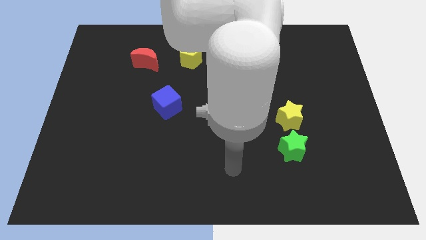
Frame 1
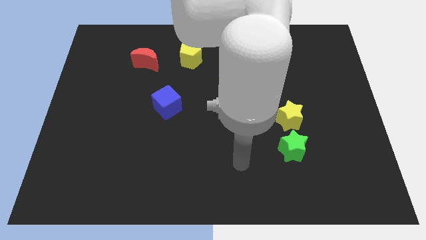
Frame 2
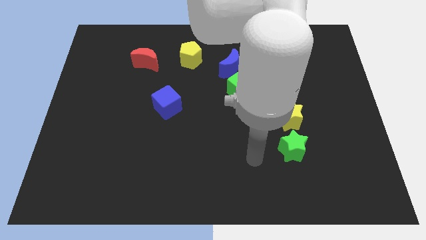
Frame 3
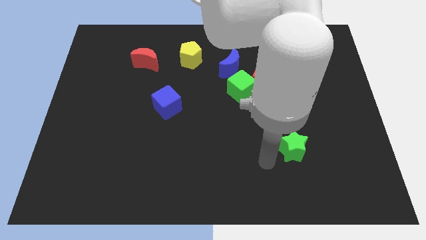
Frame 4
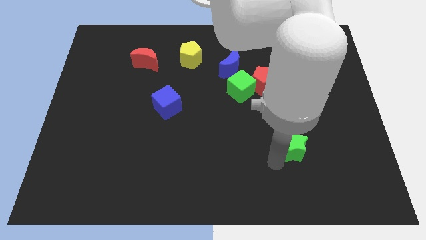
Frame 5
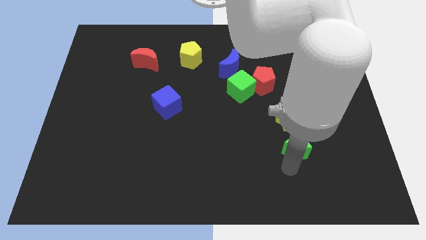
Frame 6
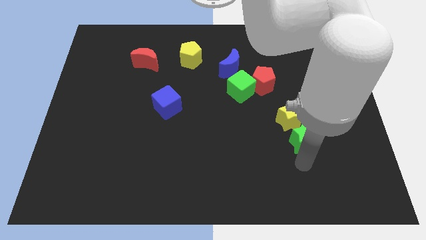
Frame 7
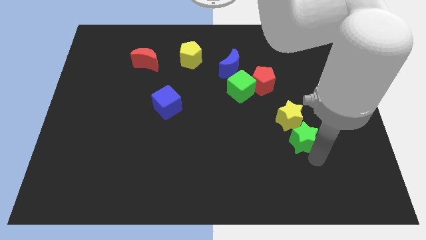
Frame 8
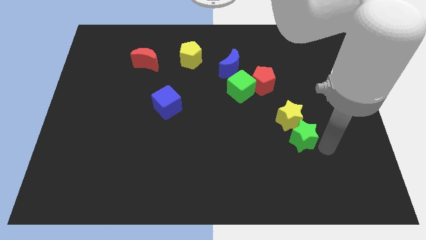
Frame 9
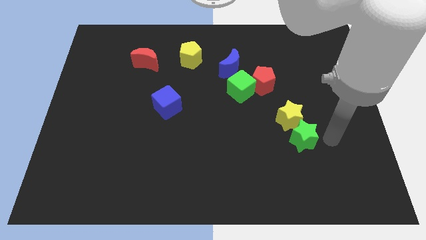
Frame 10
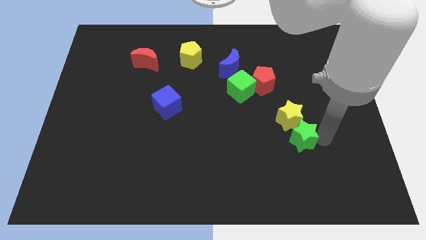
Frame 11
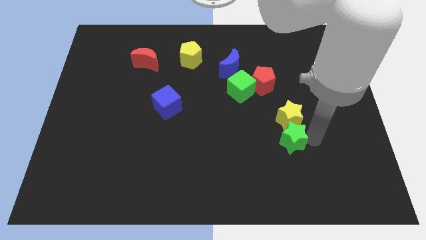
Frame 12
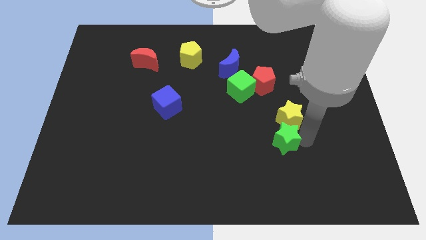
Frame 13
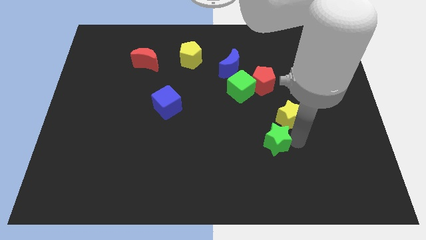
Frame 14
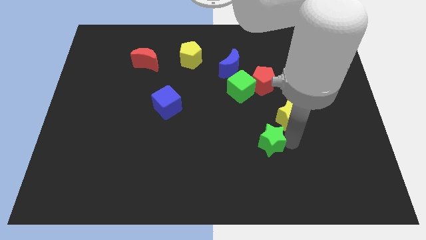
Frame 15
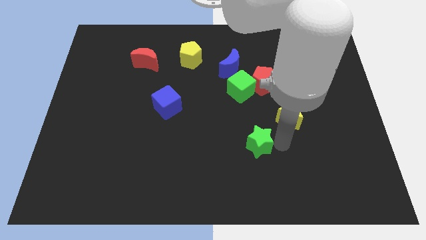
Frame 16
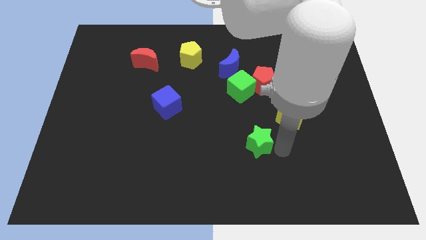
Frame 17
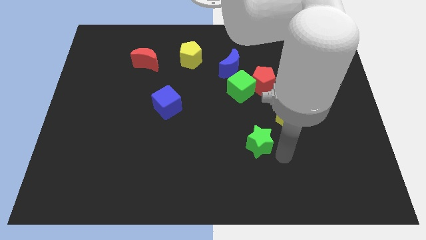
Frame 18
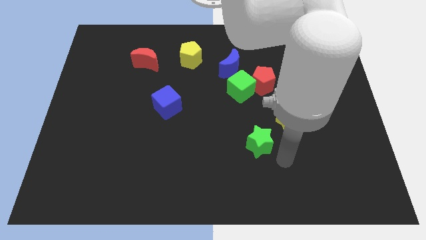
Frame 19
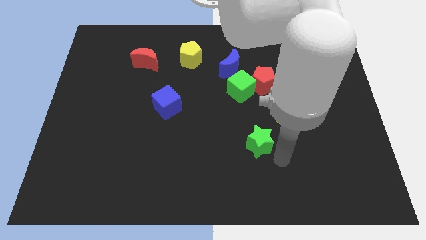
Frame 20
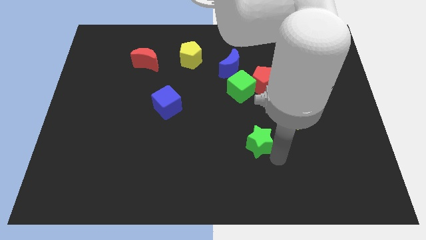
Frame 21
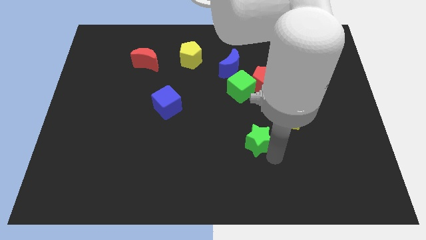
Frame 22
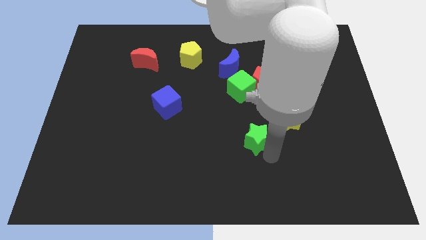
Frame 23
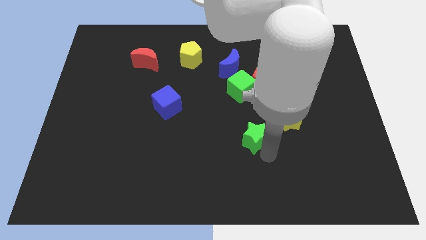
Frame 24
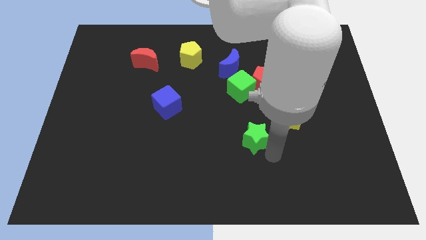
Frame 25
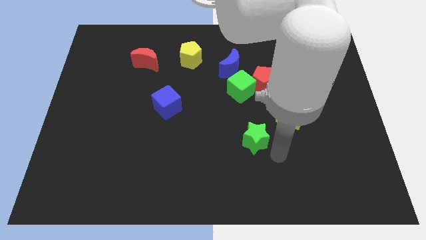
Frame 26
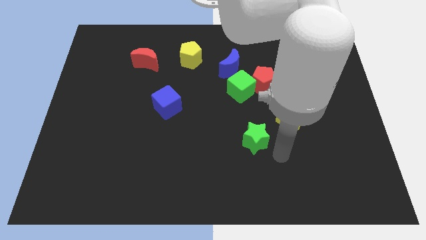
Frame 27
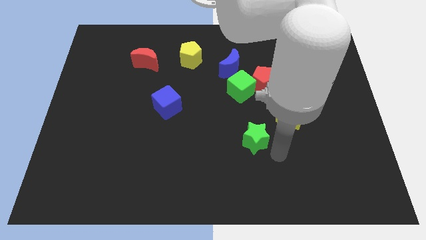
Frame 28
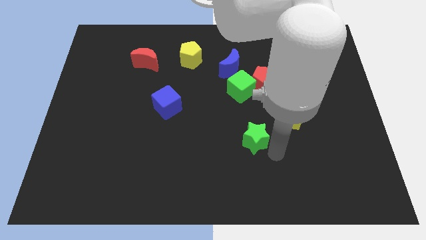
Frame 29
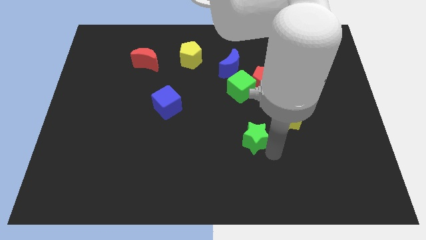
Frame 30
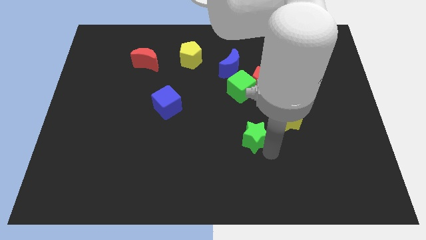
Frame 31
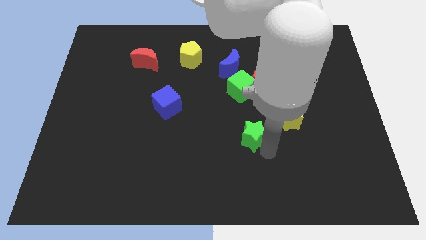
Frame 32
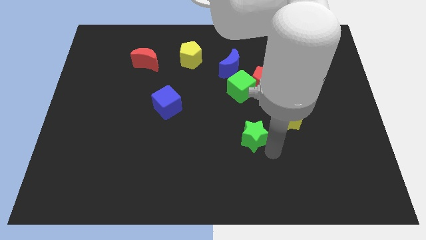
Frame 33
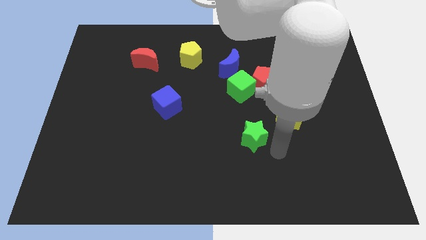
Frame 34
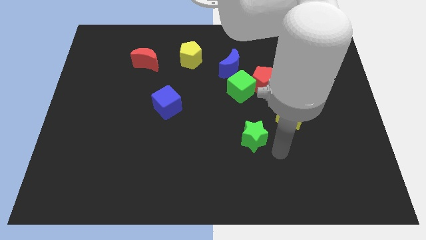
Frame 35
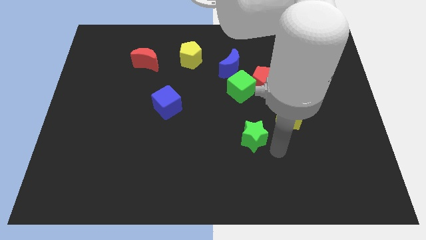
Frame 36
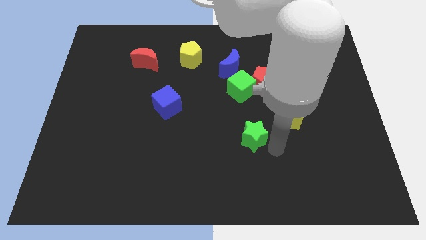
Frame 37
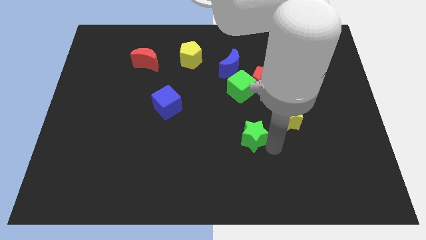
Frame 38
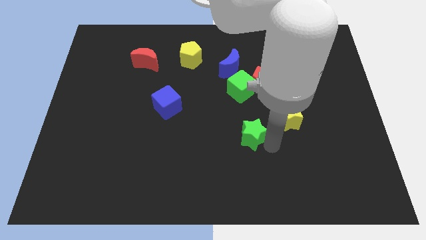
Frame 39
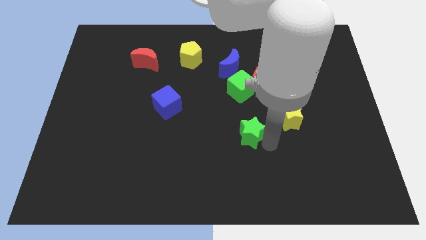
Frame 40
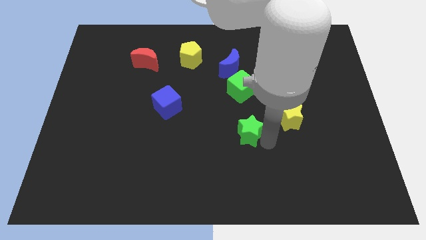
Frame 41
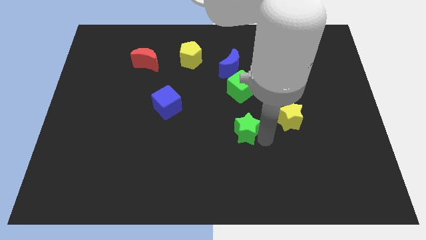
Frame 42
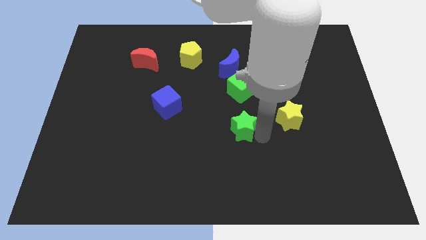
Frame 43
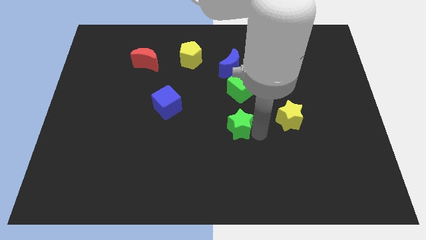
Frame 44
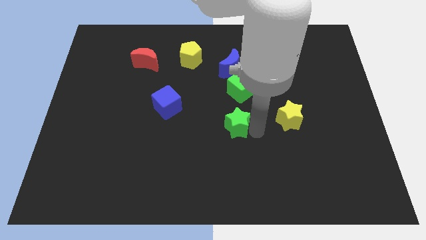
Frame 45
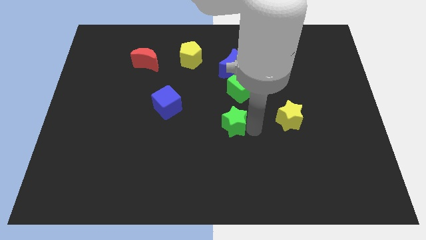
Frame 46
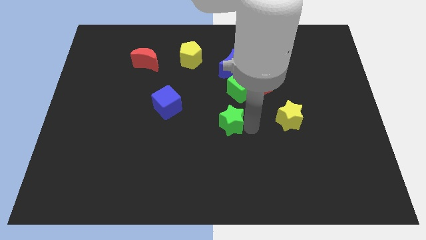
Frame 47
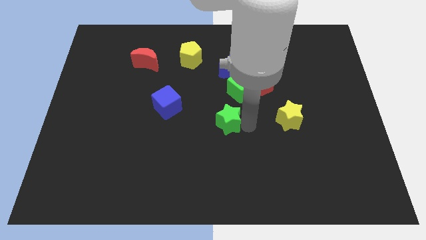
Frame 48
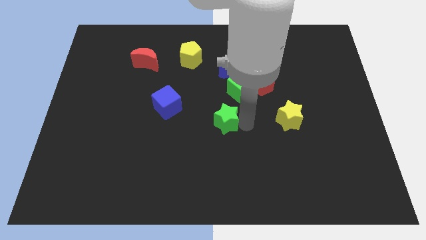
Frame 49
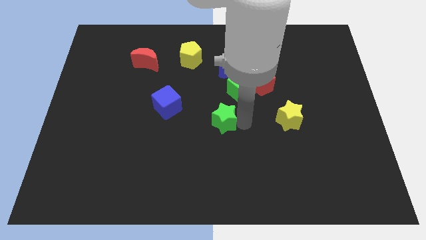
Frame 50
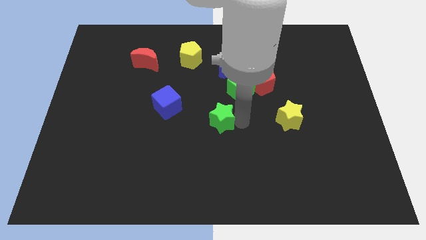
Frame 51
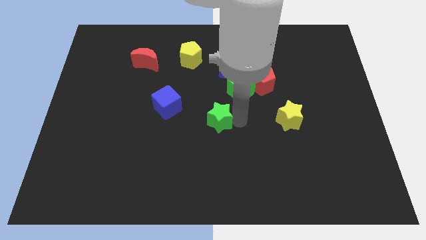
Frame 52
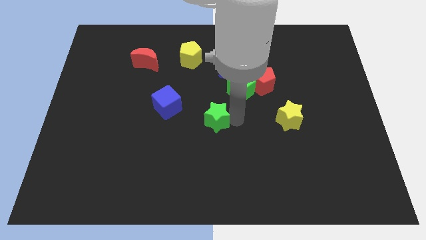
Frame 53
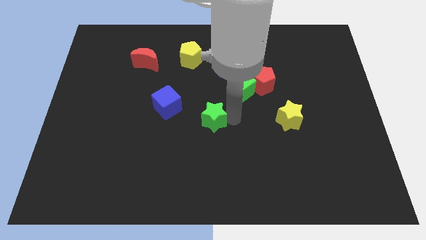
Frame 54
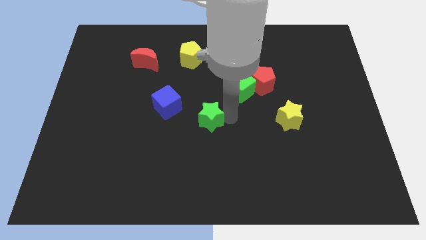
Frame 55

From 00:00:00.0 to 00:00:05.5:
put the green star to the bottom right side of the blue cube

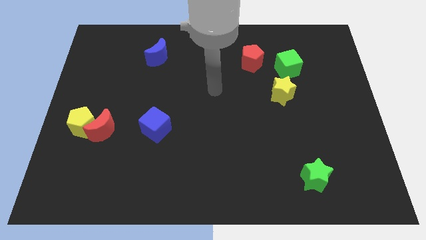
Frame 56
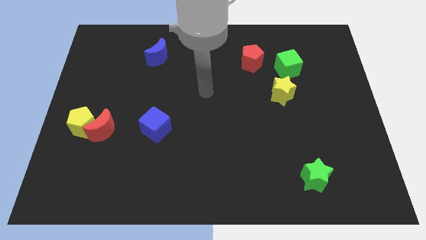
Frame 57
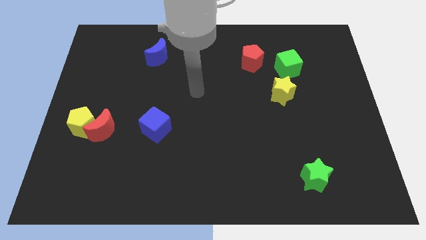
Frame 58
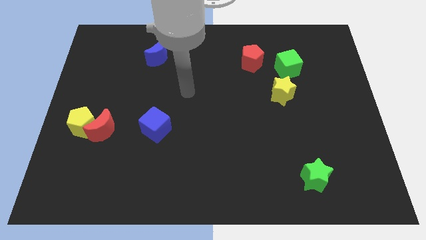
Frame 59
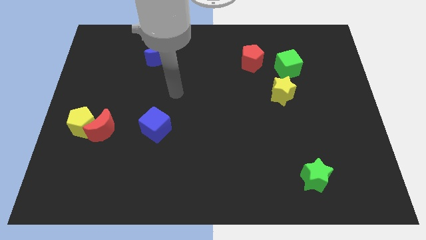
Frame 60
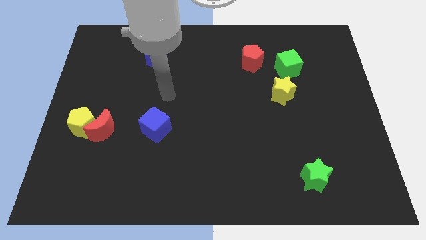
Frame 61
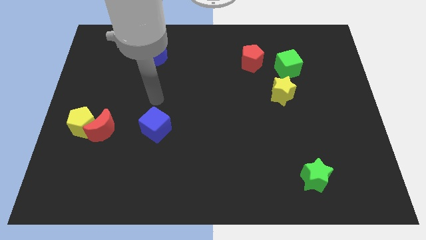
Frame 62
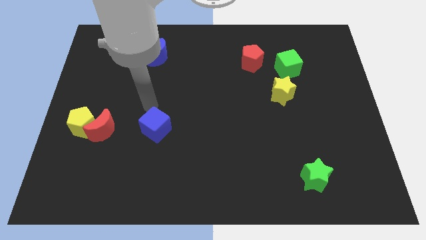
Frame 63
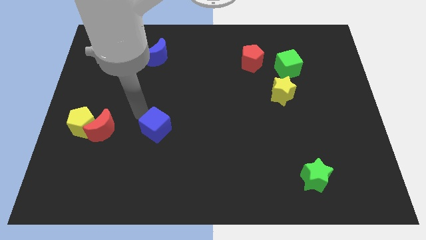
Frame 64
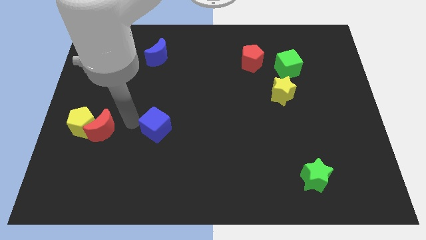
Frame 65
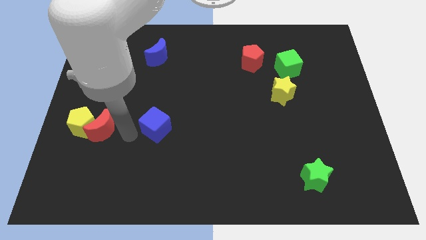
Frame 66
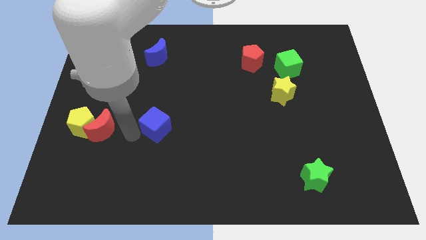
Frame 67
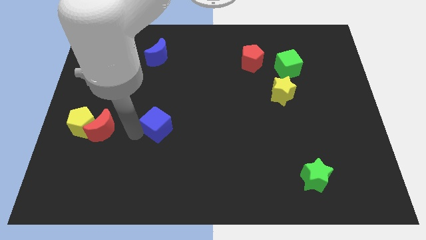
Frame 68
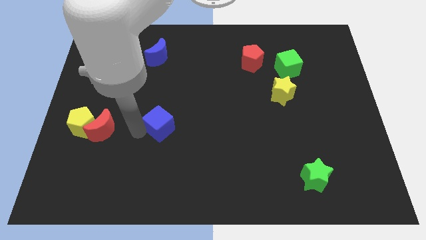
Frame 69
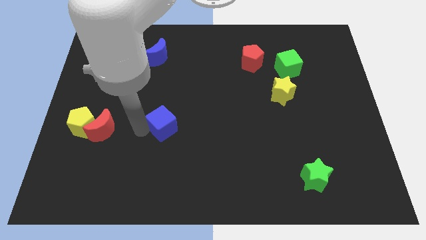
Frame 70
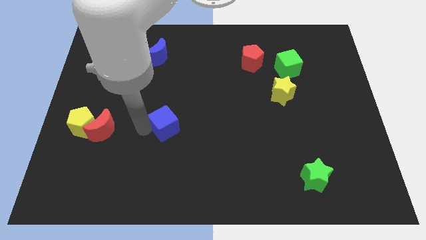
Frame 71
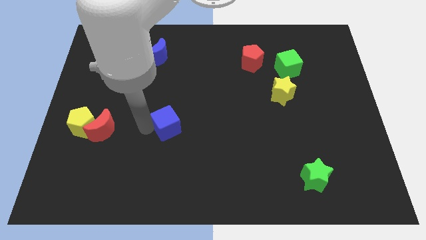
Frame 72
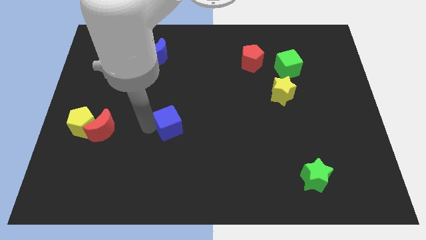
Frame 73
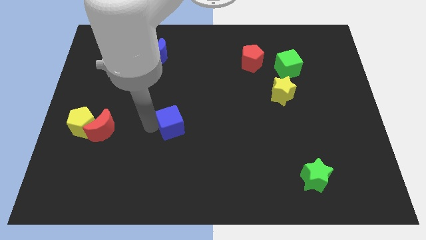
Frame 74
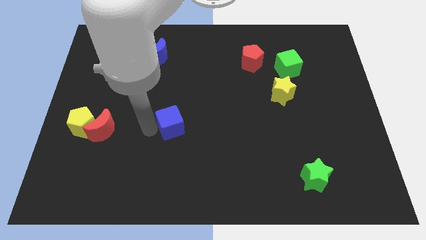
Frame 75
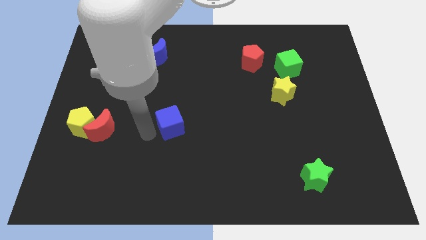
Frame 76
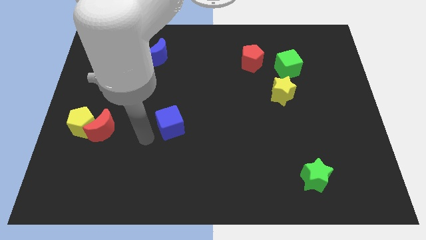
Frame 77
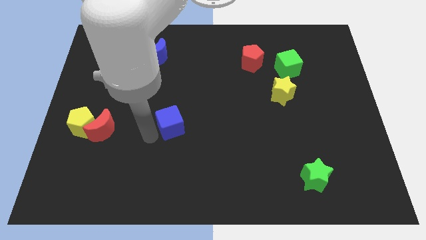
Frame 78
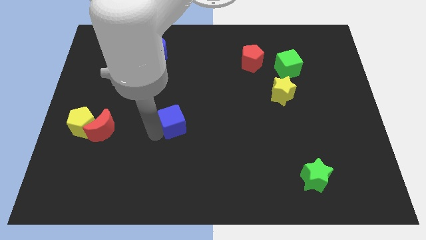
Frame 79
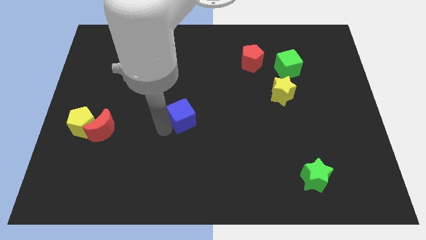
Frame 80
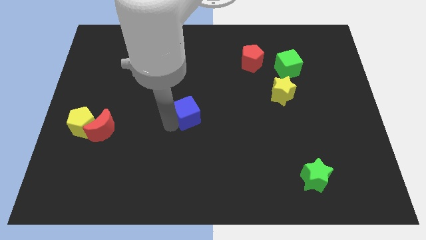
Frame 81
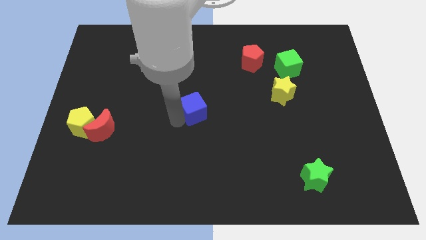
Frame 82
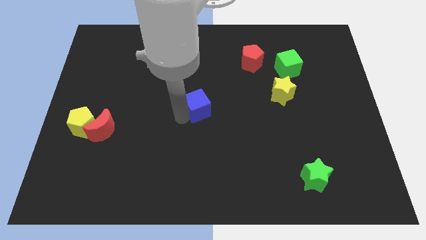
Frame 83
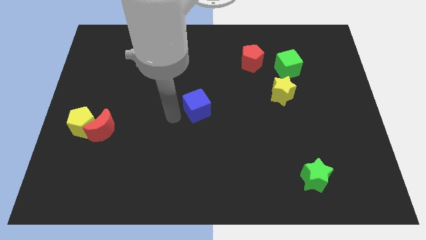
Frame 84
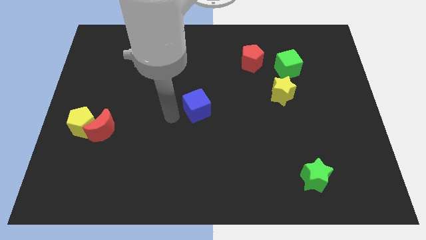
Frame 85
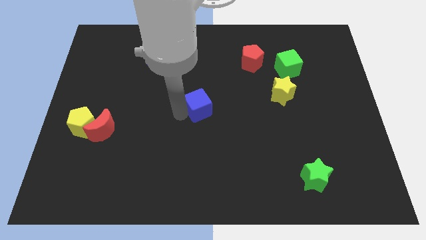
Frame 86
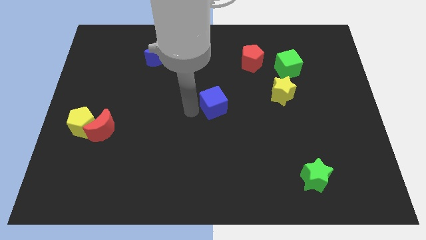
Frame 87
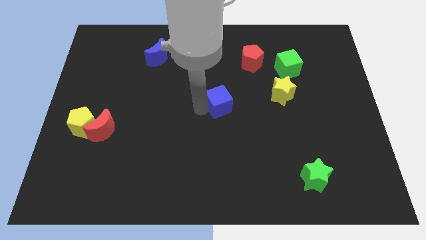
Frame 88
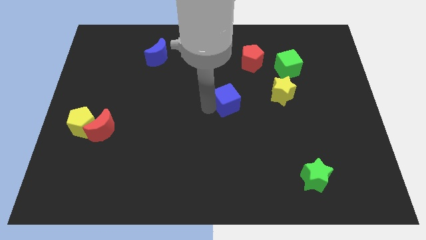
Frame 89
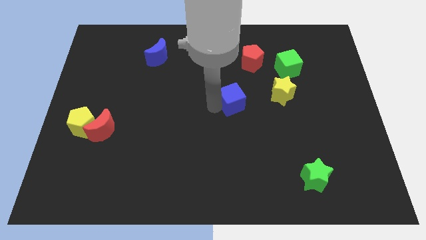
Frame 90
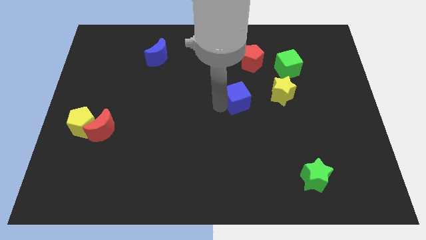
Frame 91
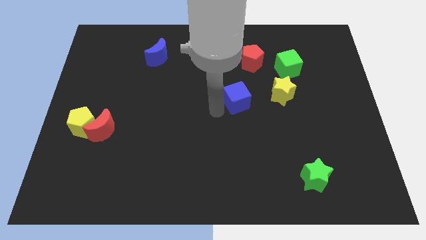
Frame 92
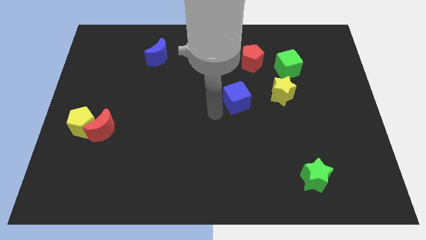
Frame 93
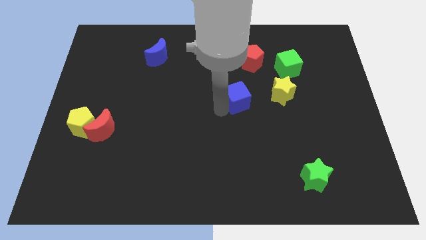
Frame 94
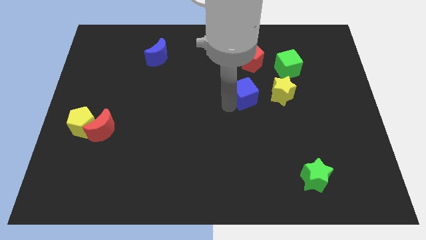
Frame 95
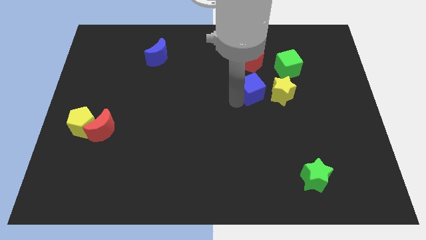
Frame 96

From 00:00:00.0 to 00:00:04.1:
push the blue cube to the bottom left of the green cube
